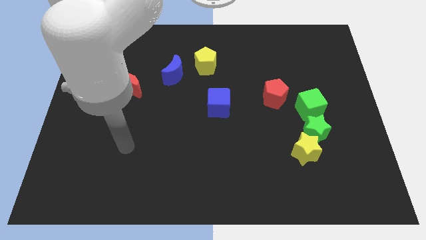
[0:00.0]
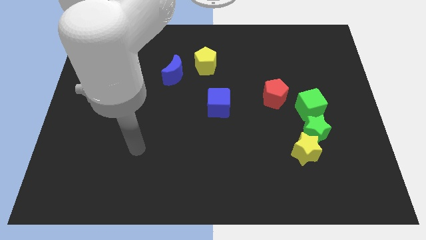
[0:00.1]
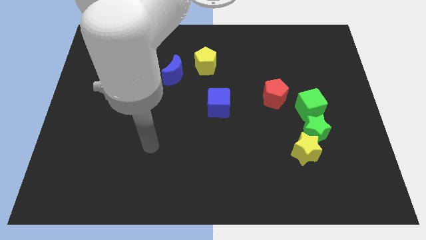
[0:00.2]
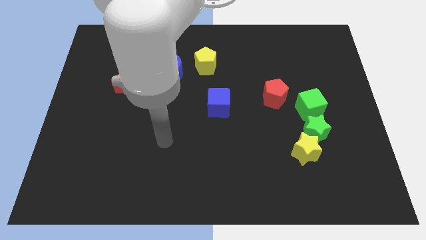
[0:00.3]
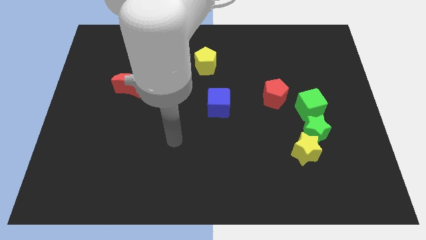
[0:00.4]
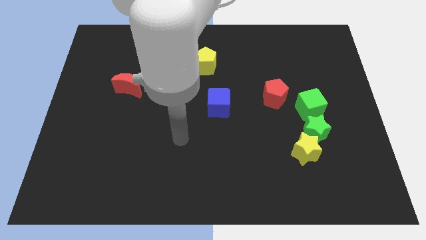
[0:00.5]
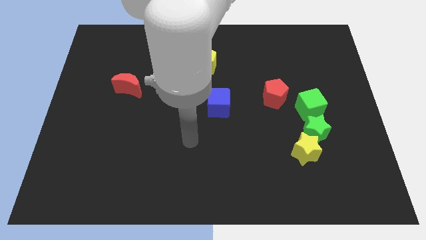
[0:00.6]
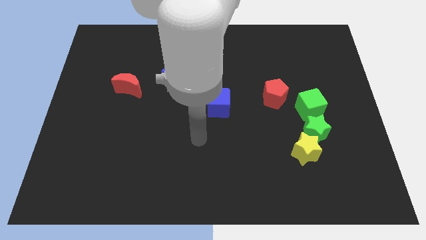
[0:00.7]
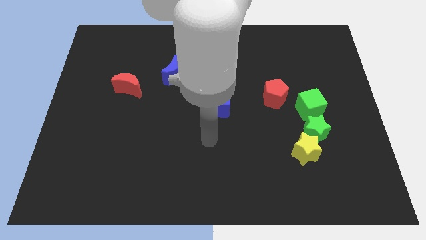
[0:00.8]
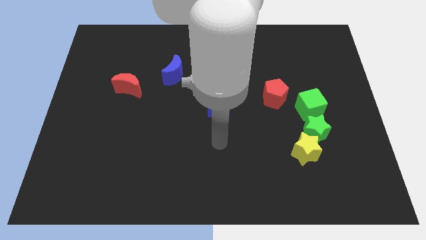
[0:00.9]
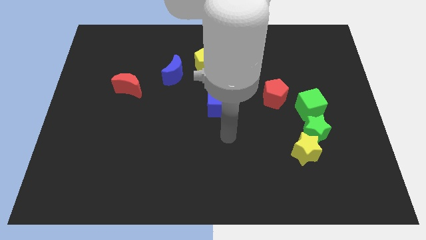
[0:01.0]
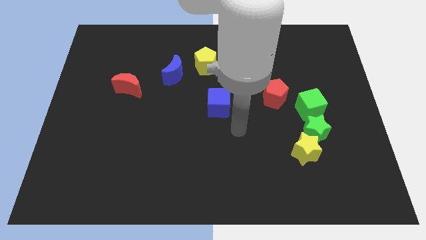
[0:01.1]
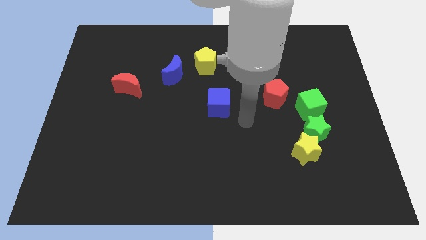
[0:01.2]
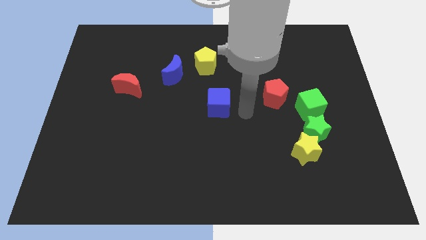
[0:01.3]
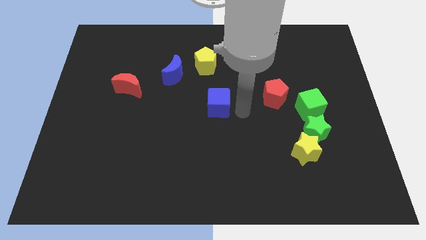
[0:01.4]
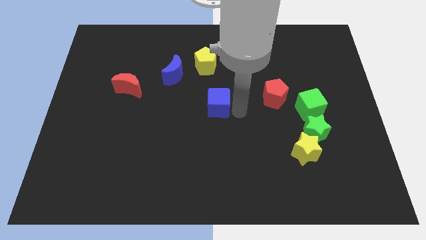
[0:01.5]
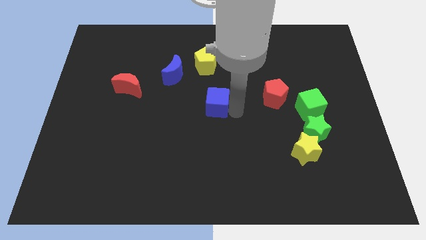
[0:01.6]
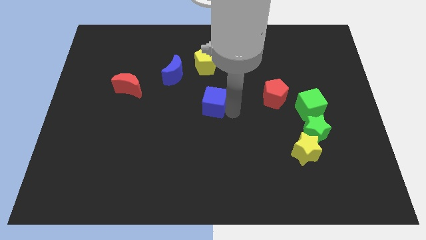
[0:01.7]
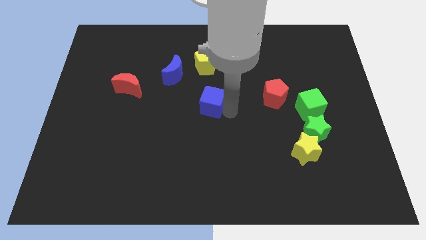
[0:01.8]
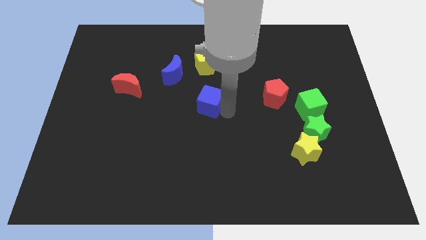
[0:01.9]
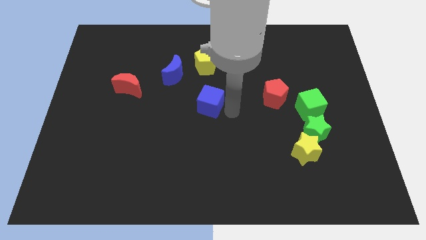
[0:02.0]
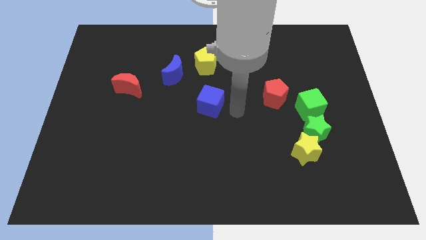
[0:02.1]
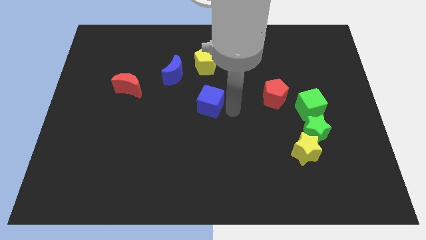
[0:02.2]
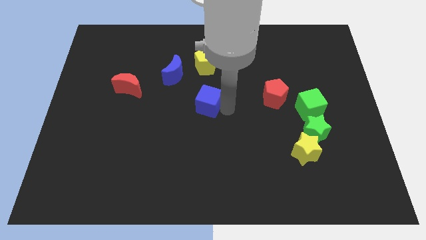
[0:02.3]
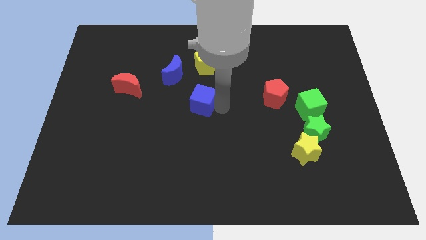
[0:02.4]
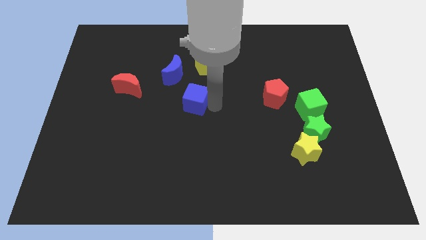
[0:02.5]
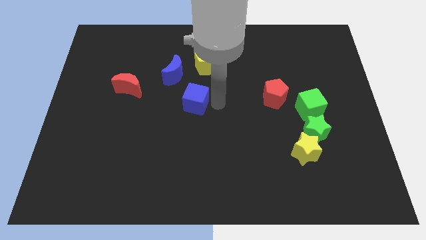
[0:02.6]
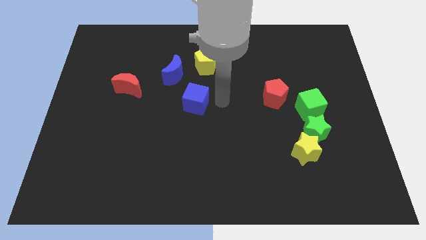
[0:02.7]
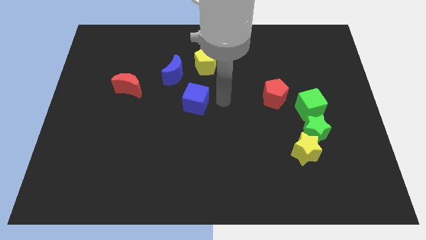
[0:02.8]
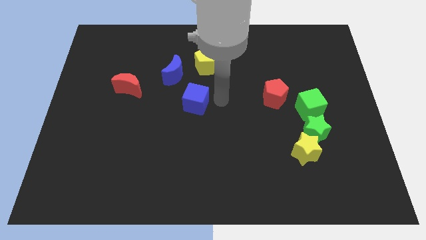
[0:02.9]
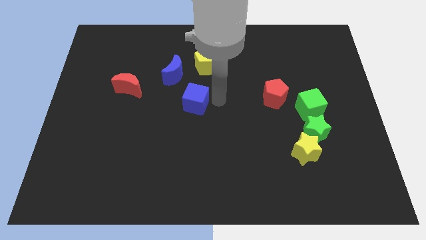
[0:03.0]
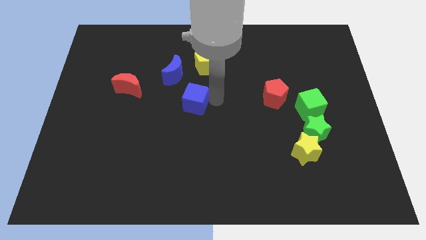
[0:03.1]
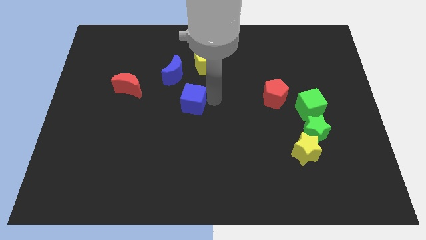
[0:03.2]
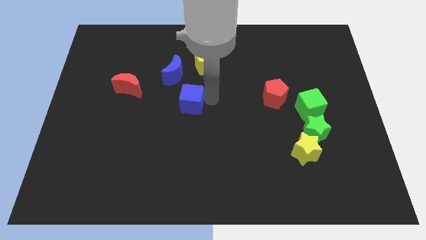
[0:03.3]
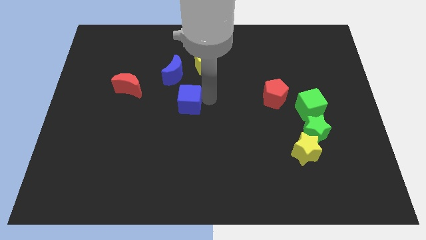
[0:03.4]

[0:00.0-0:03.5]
push the blue cube left a little

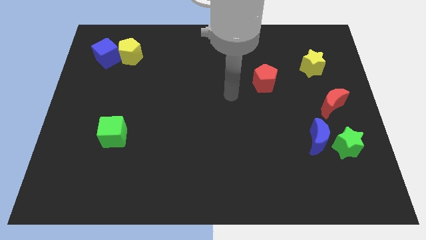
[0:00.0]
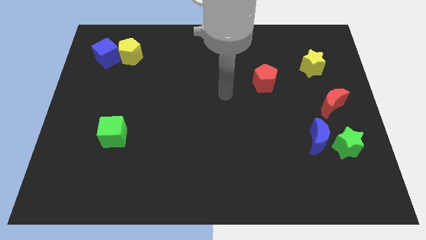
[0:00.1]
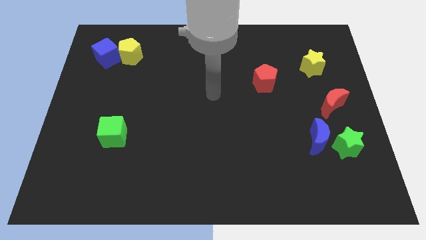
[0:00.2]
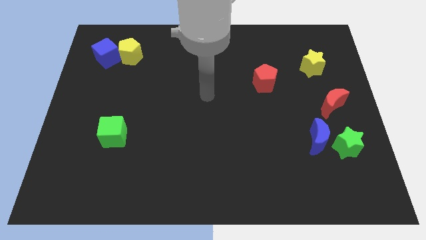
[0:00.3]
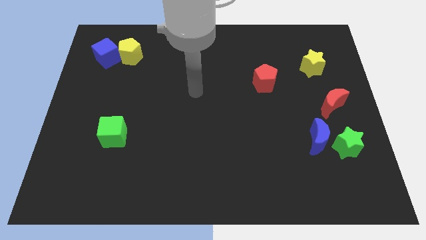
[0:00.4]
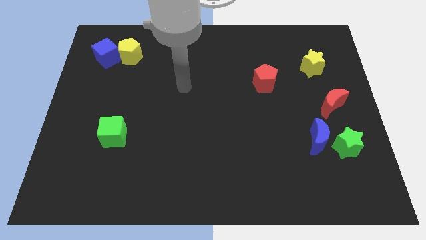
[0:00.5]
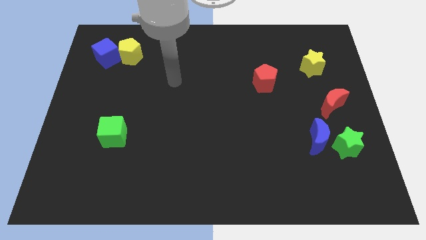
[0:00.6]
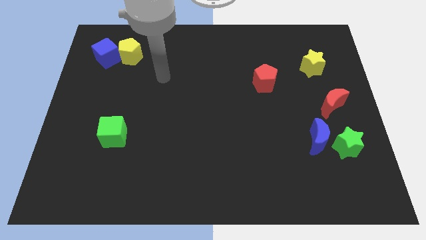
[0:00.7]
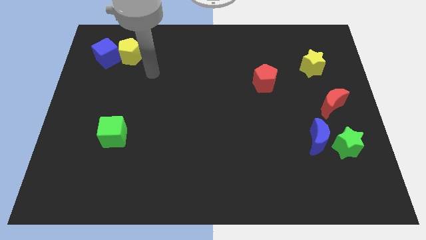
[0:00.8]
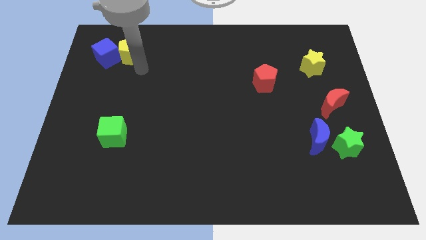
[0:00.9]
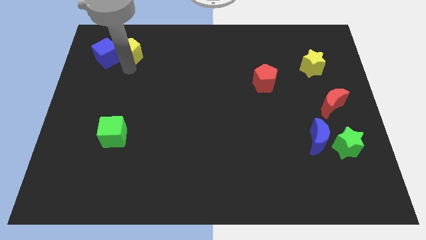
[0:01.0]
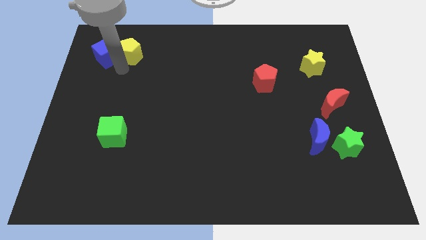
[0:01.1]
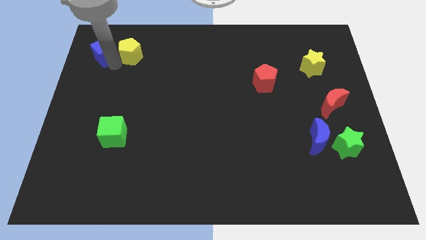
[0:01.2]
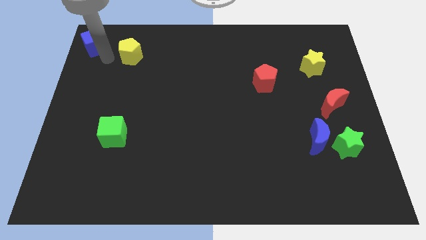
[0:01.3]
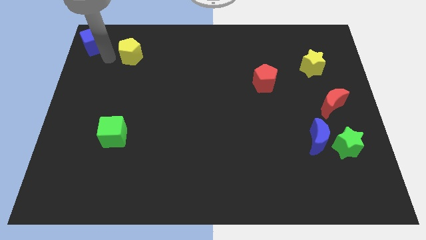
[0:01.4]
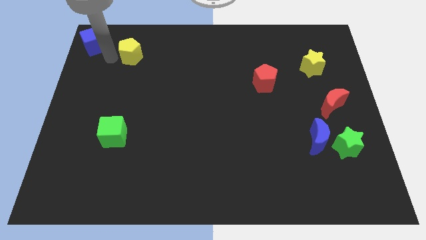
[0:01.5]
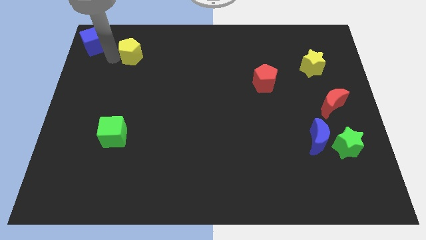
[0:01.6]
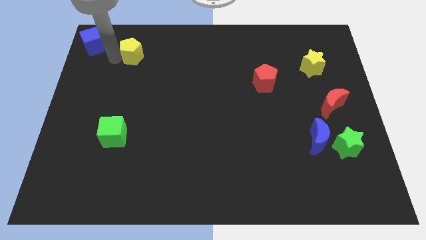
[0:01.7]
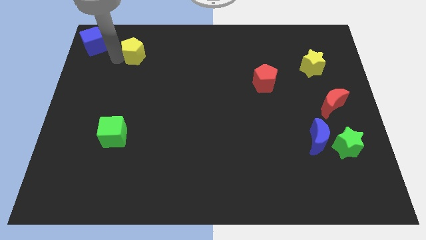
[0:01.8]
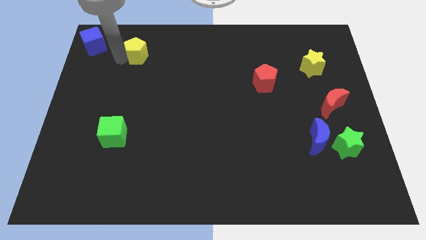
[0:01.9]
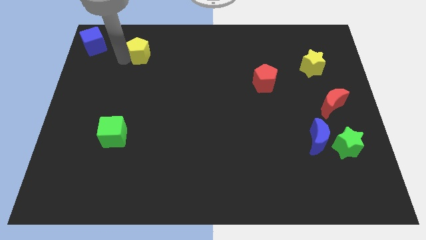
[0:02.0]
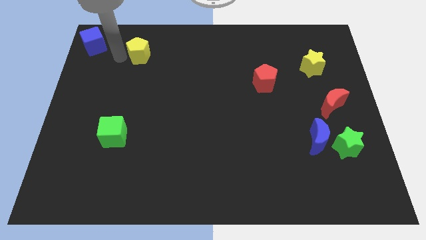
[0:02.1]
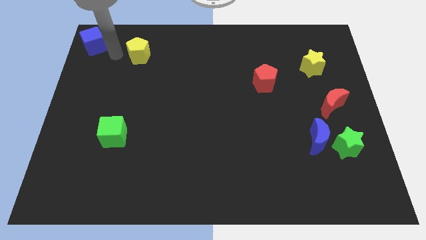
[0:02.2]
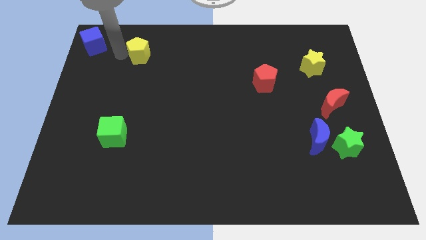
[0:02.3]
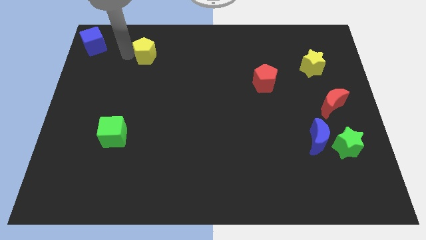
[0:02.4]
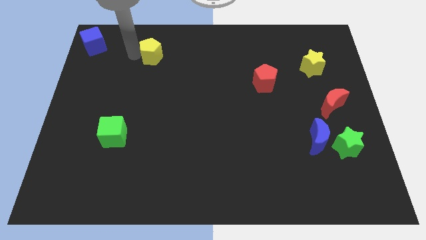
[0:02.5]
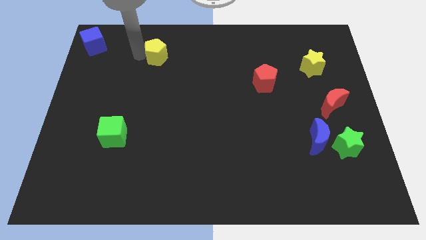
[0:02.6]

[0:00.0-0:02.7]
slightly push the yellow pentagon to the right

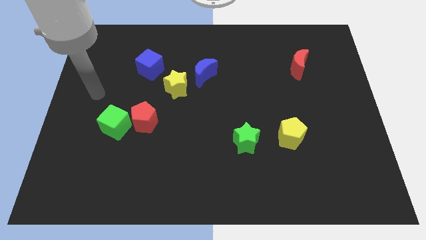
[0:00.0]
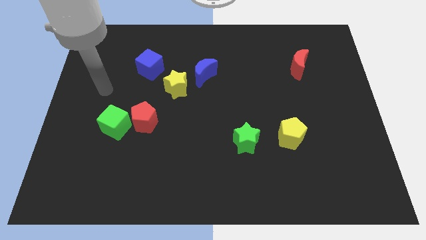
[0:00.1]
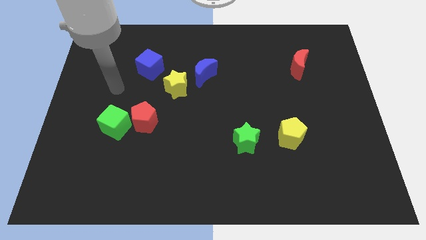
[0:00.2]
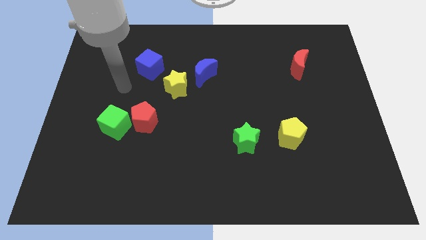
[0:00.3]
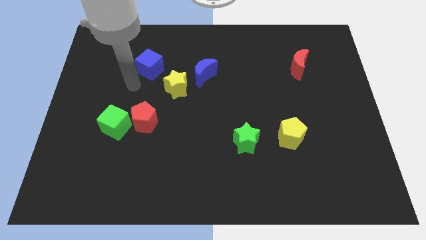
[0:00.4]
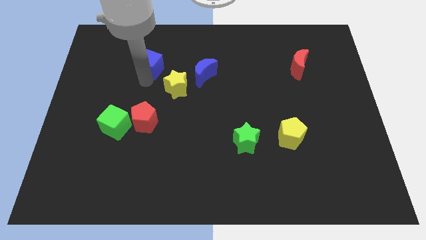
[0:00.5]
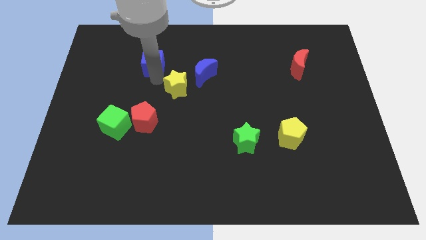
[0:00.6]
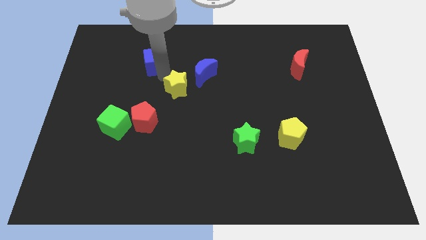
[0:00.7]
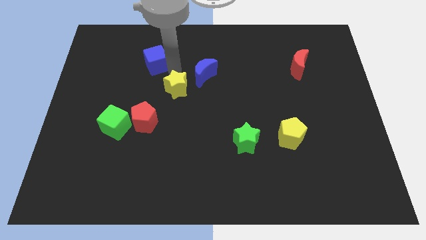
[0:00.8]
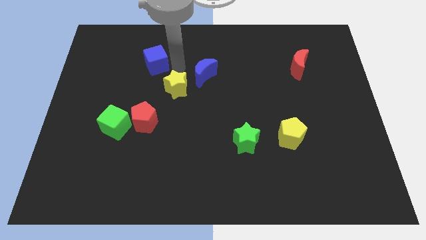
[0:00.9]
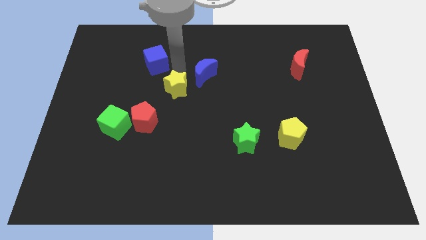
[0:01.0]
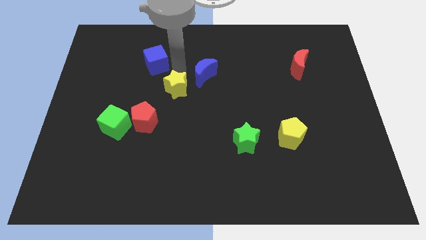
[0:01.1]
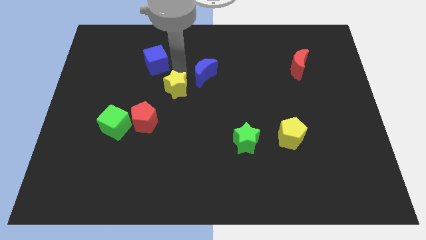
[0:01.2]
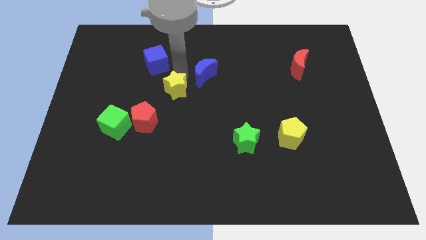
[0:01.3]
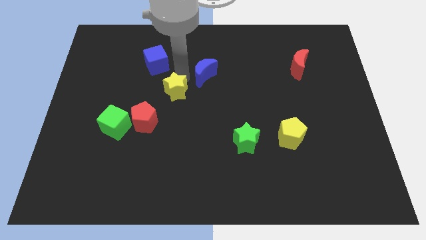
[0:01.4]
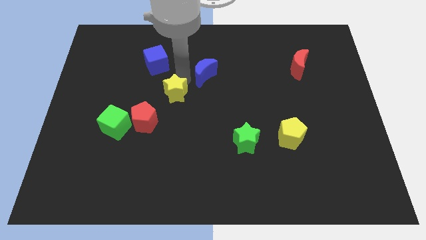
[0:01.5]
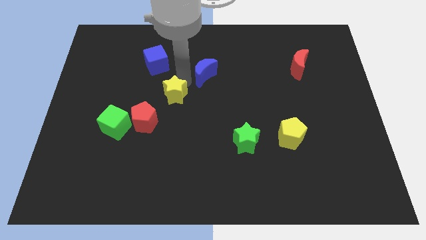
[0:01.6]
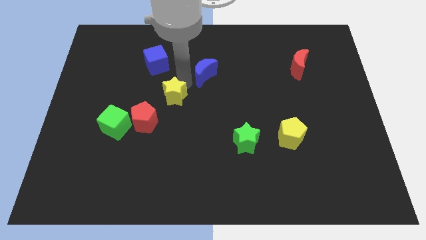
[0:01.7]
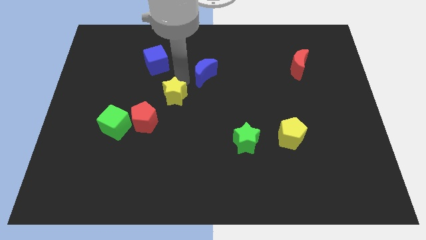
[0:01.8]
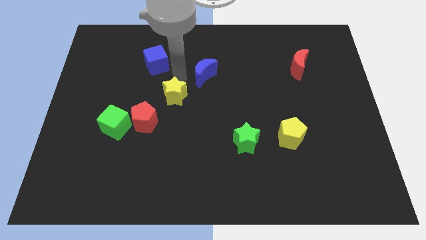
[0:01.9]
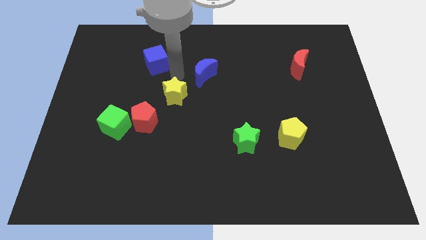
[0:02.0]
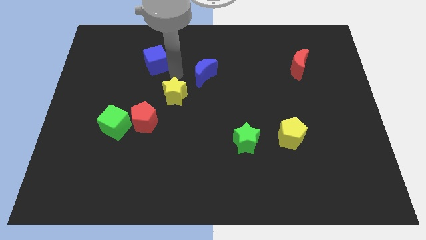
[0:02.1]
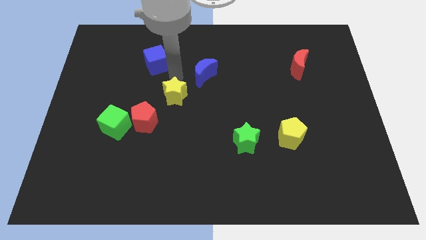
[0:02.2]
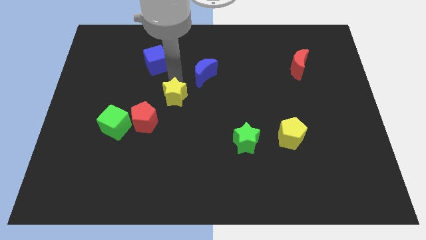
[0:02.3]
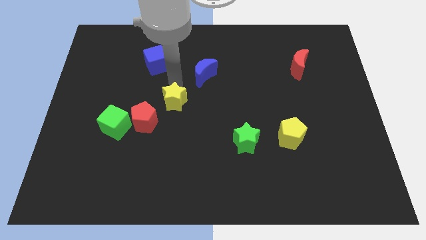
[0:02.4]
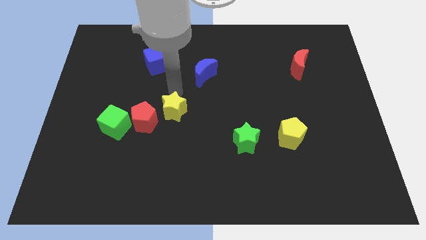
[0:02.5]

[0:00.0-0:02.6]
move the yellow star down a little
